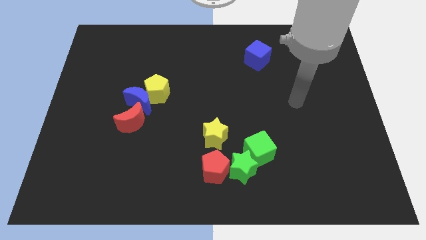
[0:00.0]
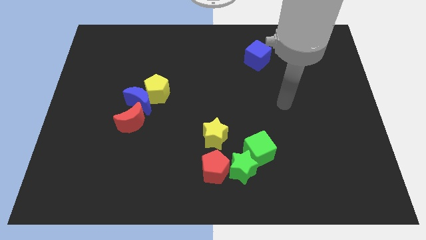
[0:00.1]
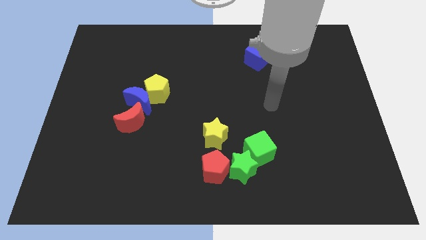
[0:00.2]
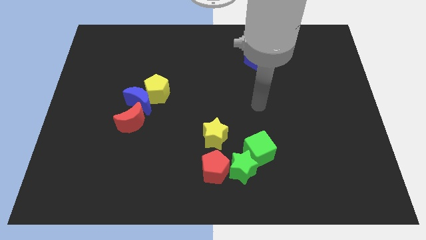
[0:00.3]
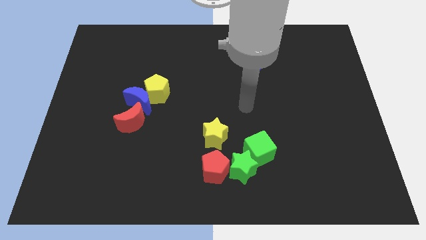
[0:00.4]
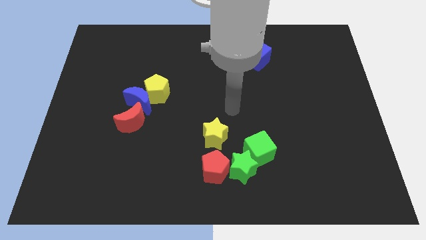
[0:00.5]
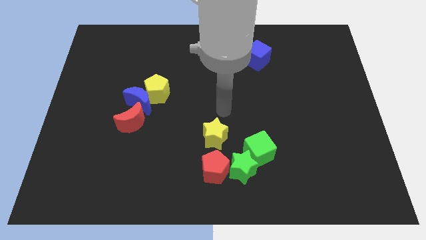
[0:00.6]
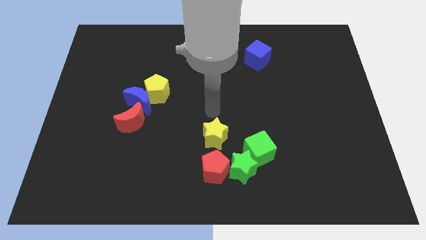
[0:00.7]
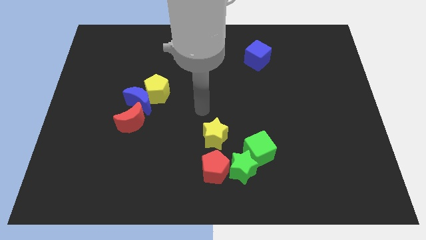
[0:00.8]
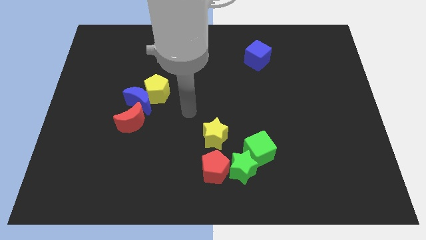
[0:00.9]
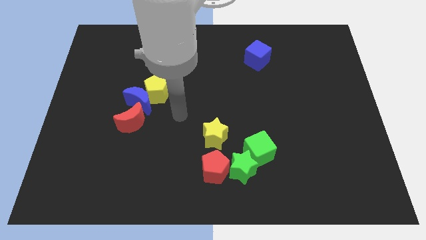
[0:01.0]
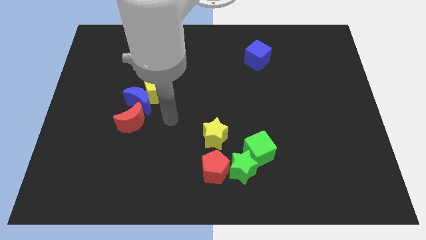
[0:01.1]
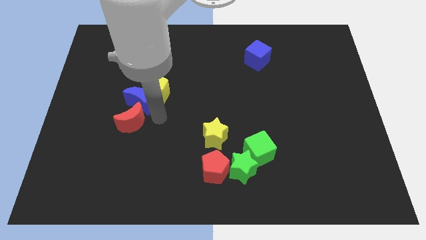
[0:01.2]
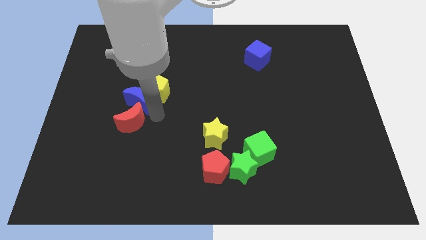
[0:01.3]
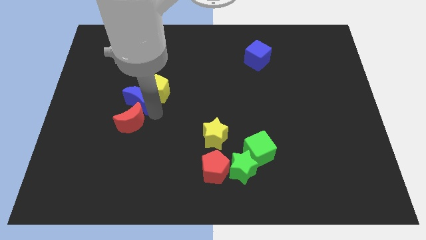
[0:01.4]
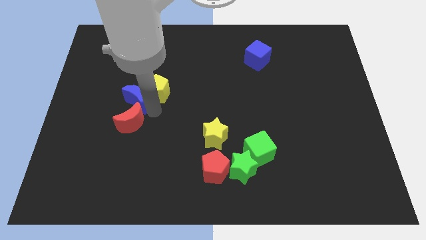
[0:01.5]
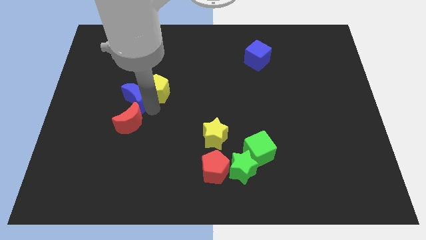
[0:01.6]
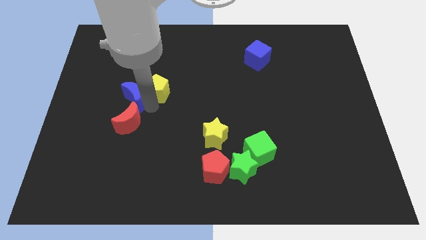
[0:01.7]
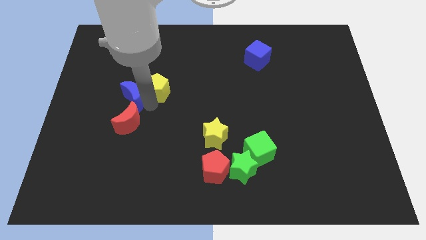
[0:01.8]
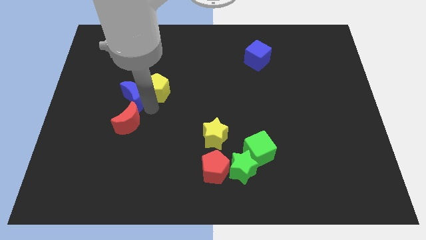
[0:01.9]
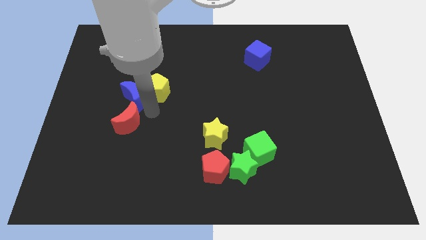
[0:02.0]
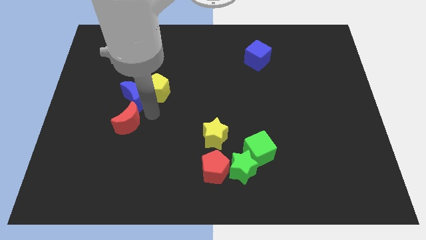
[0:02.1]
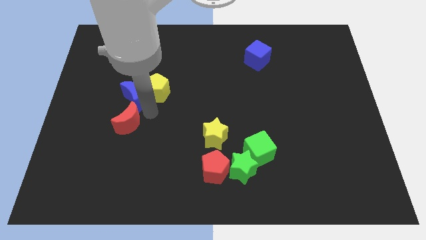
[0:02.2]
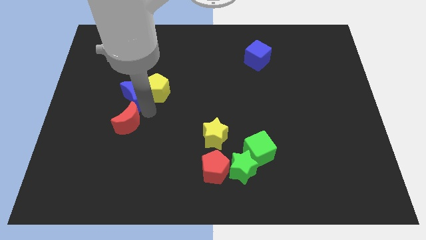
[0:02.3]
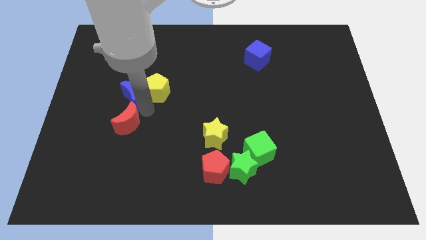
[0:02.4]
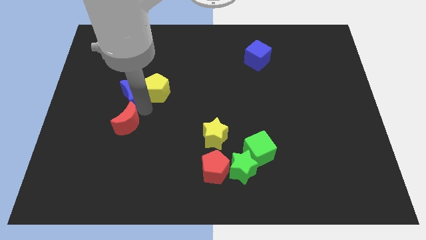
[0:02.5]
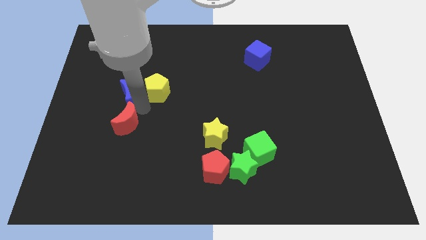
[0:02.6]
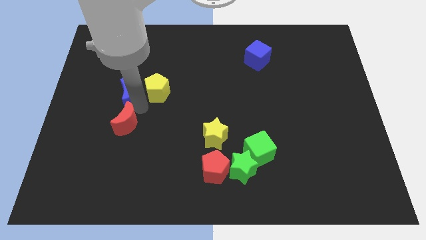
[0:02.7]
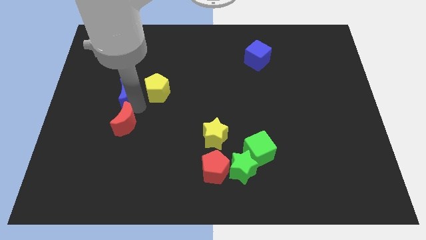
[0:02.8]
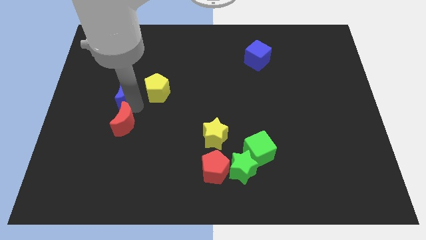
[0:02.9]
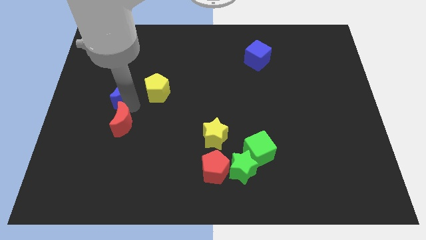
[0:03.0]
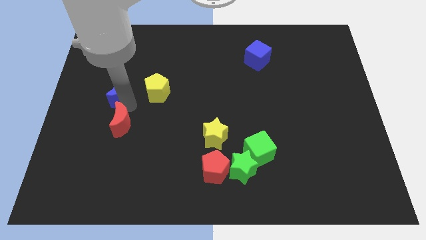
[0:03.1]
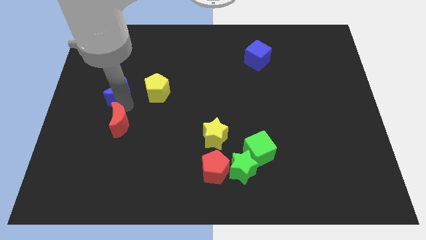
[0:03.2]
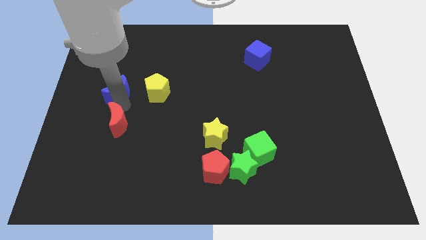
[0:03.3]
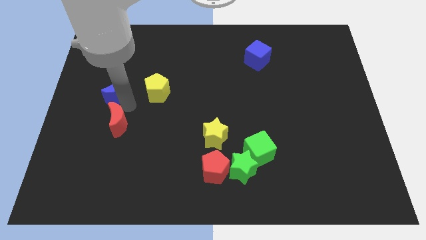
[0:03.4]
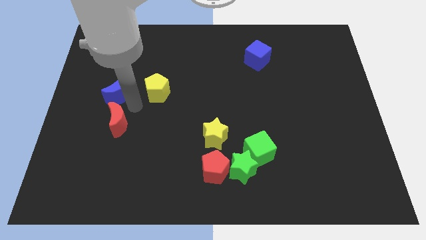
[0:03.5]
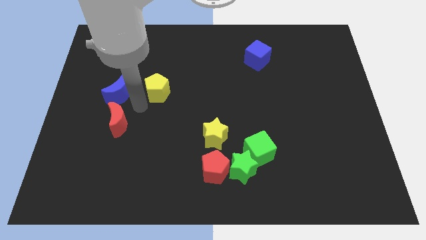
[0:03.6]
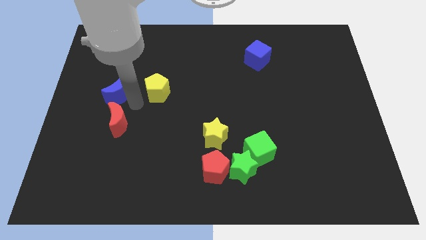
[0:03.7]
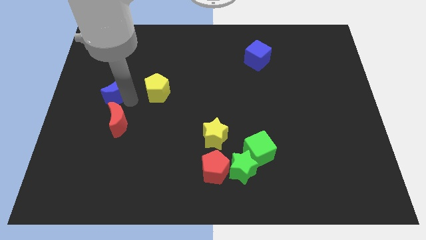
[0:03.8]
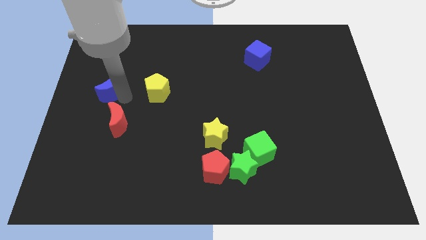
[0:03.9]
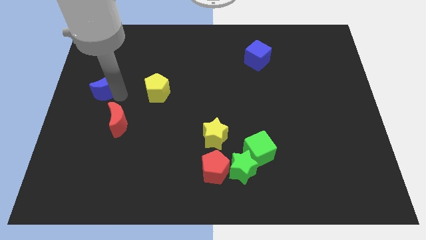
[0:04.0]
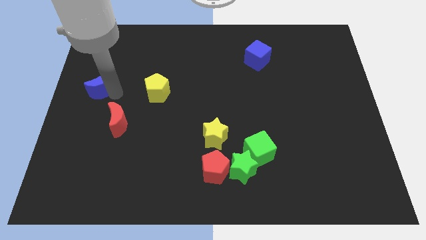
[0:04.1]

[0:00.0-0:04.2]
move the blue moon away from the yellow pentagon and red moon

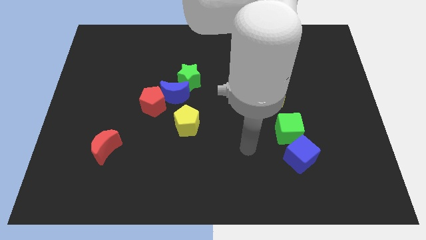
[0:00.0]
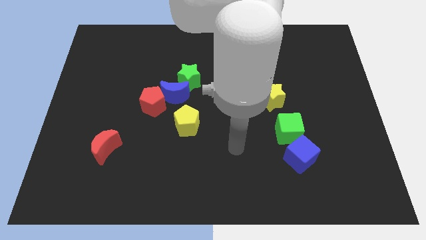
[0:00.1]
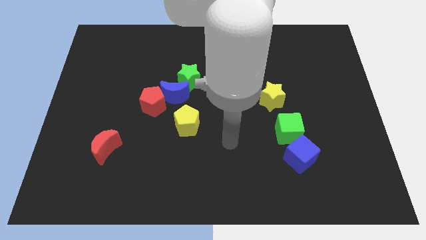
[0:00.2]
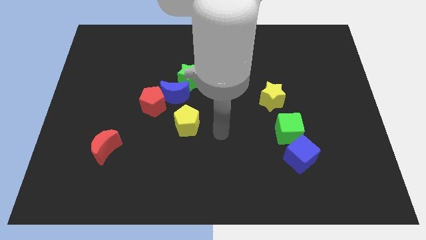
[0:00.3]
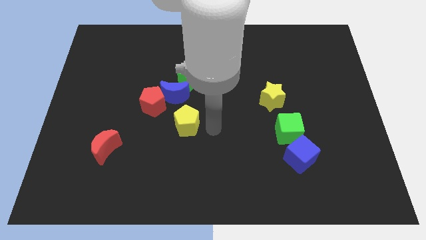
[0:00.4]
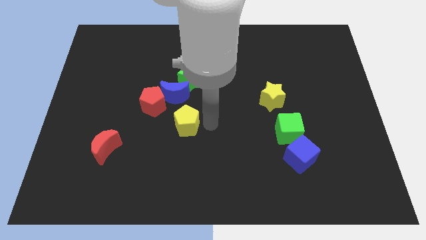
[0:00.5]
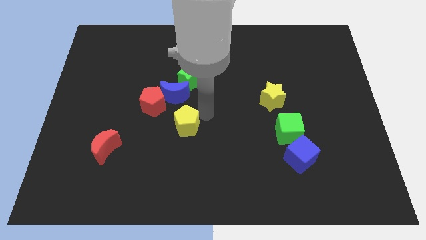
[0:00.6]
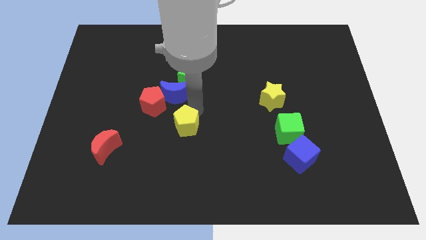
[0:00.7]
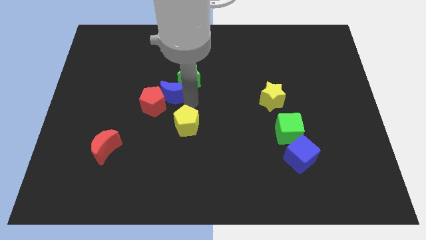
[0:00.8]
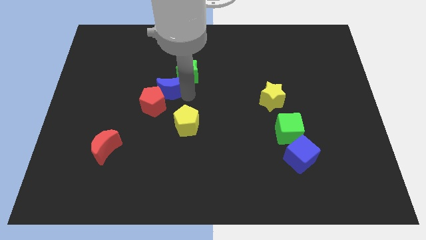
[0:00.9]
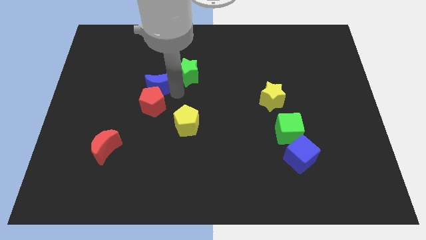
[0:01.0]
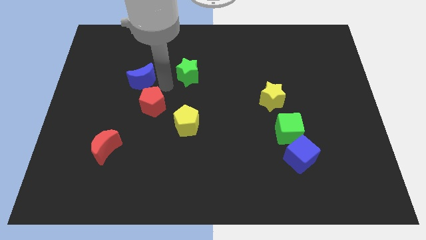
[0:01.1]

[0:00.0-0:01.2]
separate the green star from the blue moon

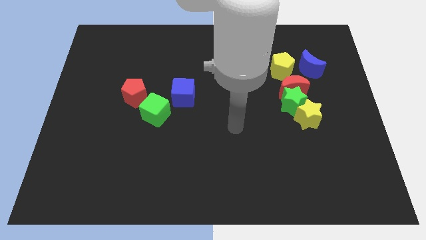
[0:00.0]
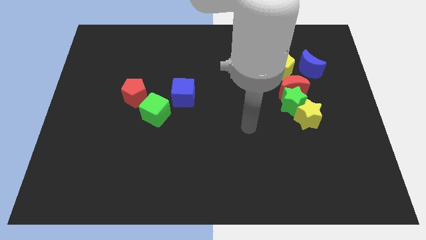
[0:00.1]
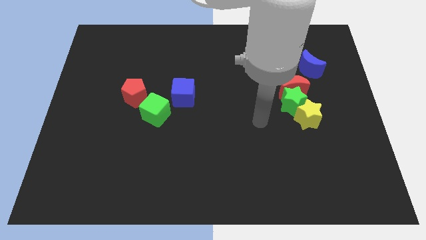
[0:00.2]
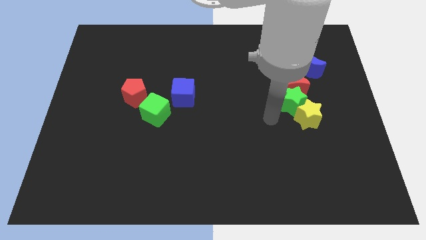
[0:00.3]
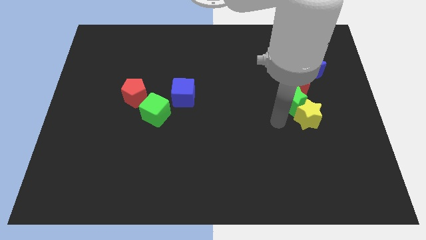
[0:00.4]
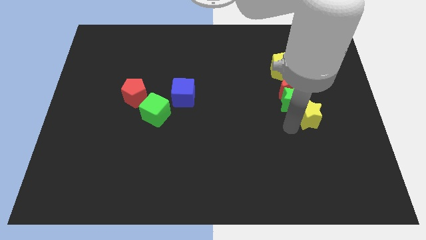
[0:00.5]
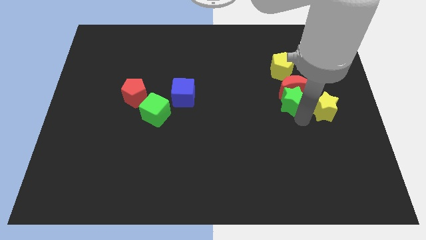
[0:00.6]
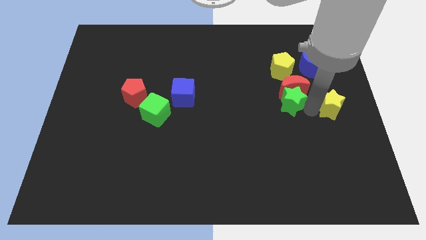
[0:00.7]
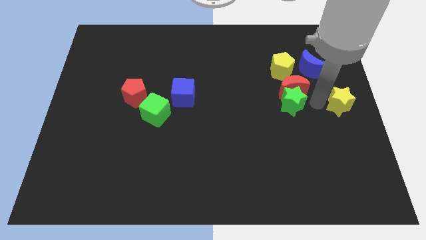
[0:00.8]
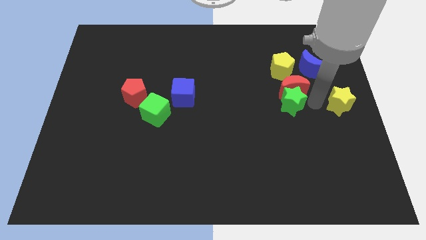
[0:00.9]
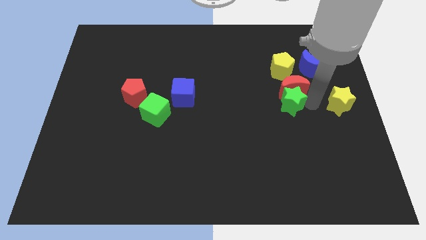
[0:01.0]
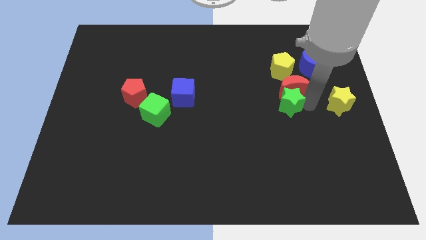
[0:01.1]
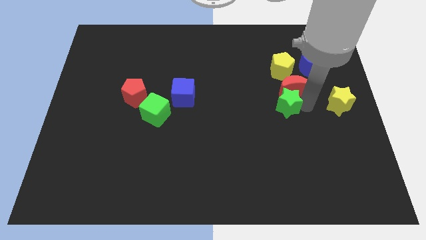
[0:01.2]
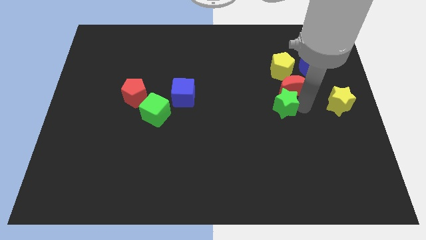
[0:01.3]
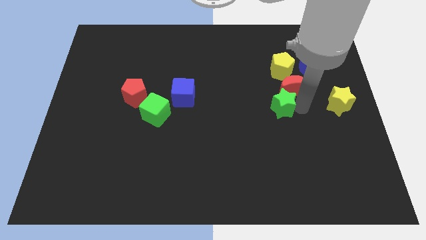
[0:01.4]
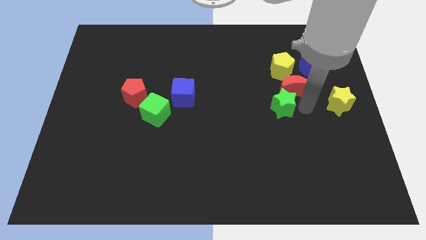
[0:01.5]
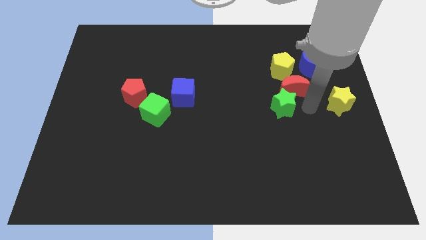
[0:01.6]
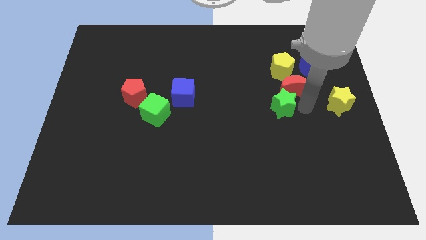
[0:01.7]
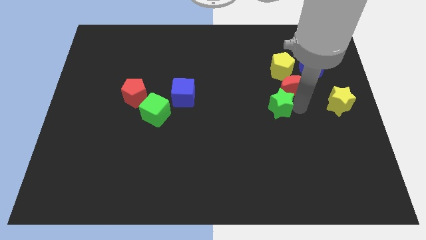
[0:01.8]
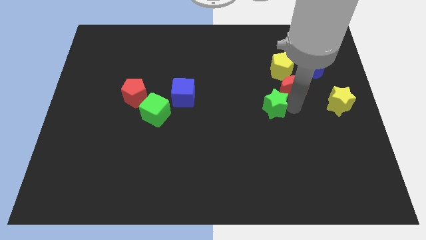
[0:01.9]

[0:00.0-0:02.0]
move the green star away from the red moon and yellow star

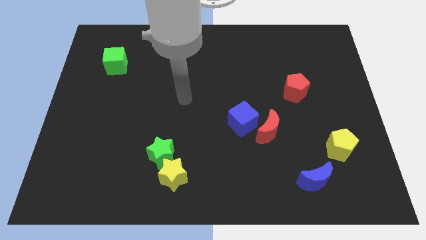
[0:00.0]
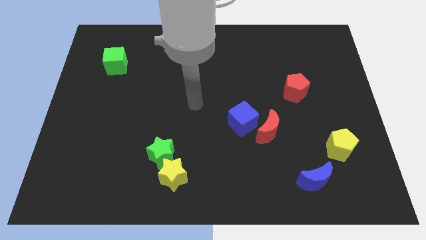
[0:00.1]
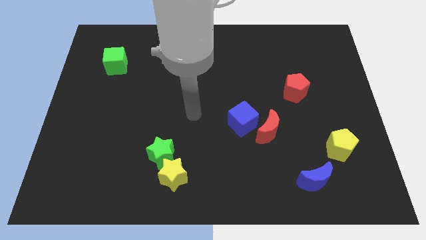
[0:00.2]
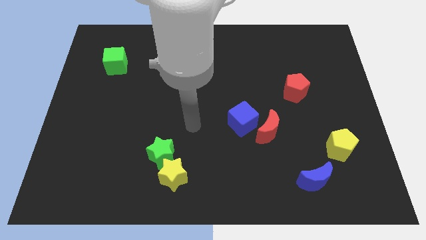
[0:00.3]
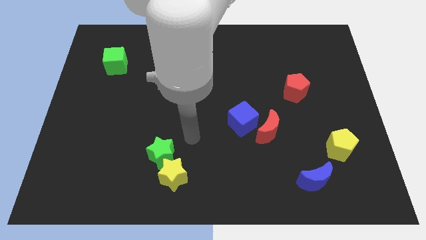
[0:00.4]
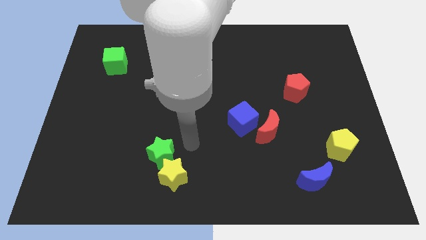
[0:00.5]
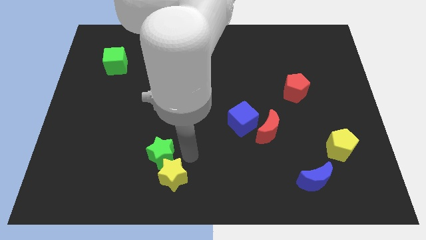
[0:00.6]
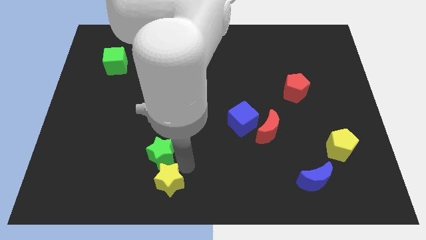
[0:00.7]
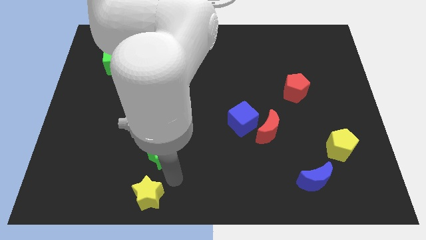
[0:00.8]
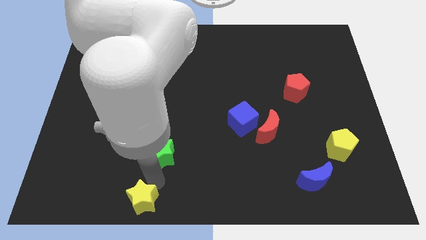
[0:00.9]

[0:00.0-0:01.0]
separate the green star from the yellow star

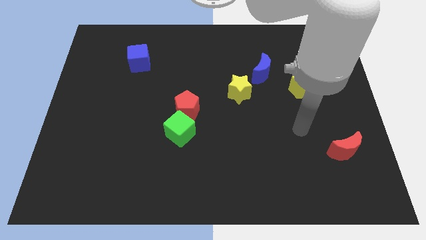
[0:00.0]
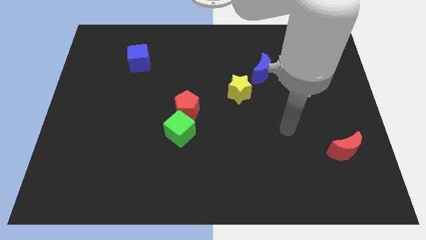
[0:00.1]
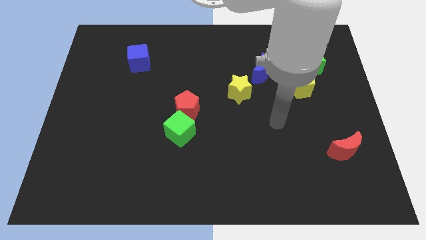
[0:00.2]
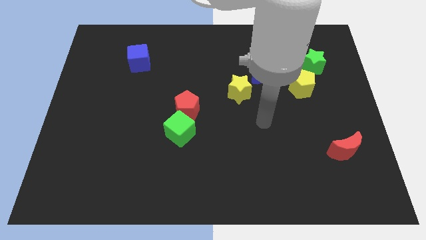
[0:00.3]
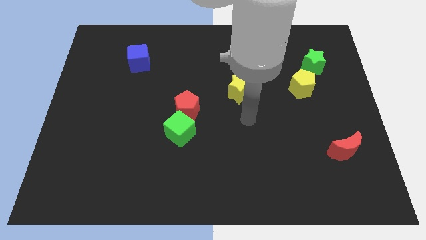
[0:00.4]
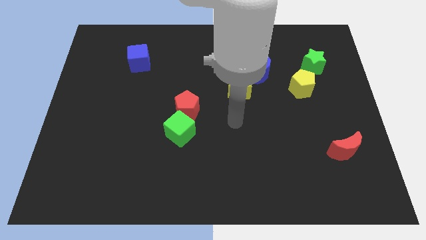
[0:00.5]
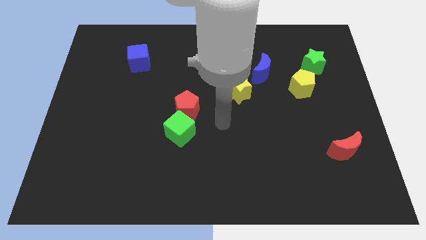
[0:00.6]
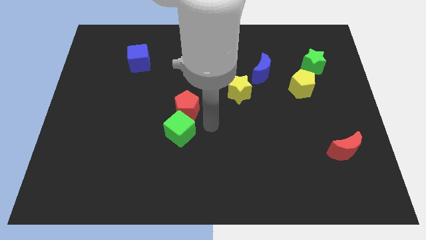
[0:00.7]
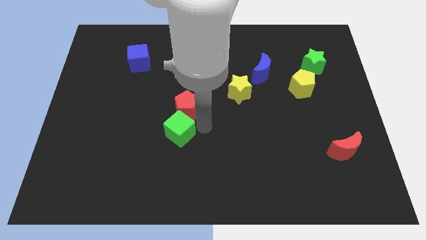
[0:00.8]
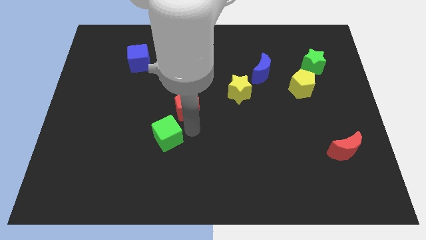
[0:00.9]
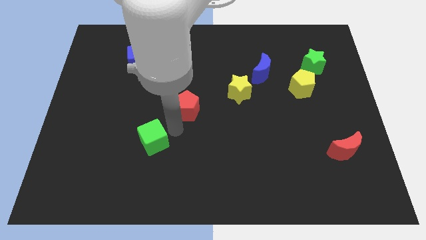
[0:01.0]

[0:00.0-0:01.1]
separate the red pentagon from the green cube
